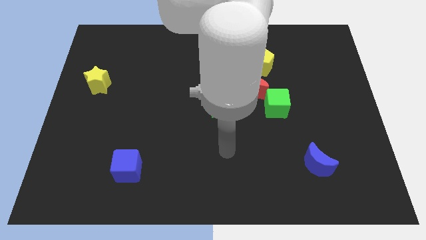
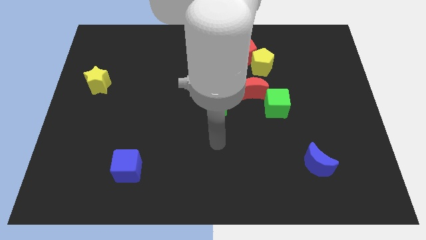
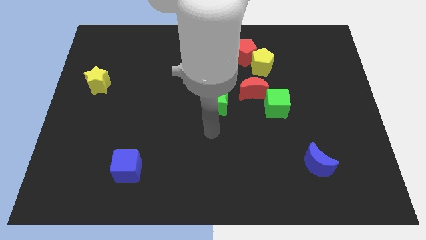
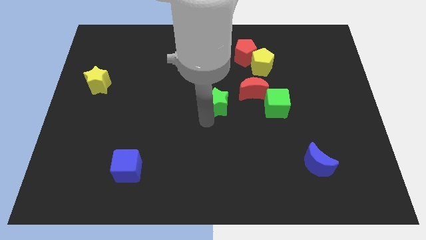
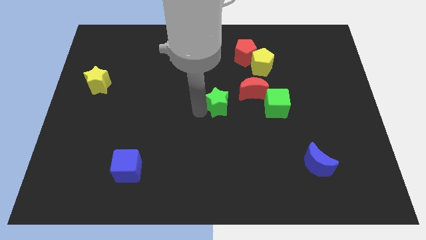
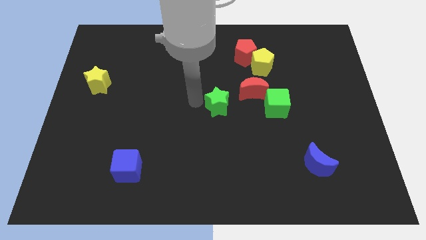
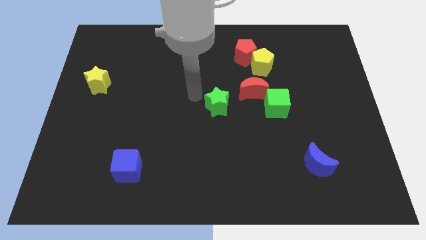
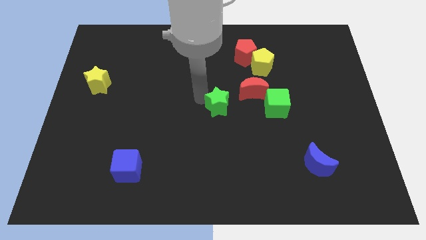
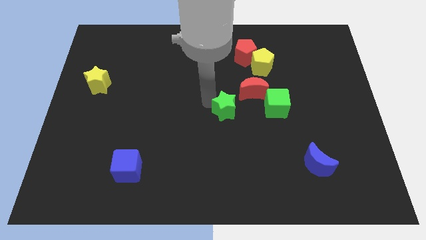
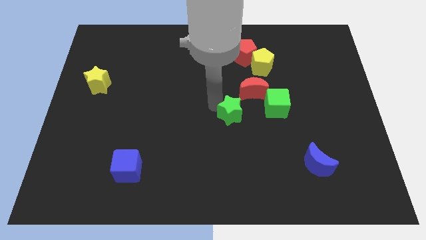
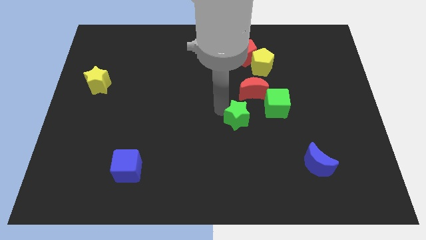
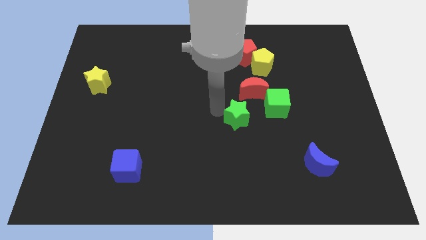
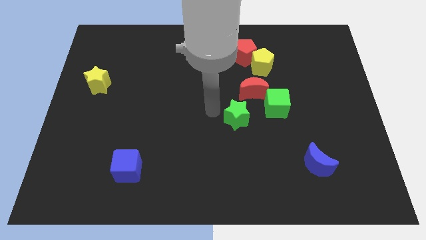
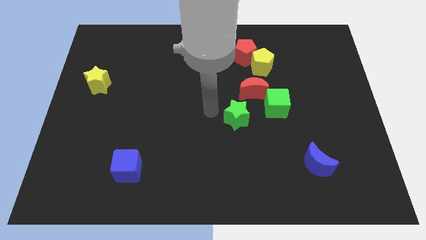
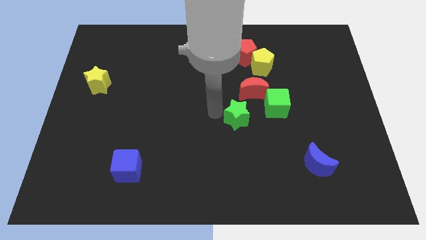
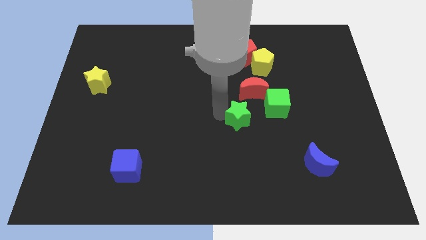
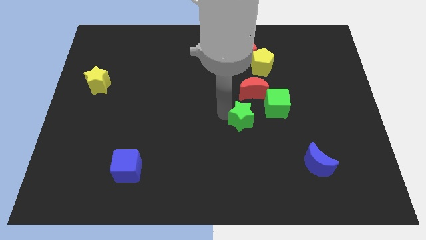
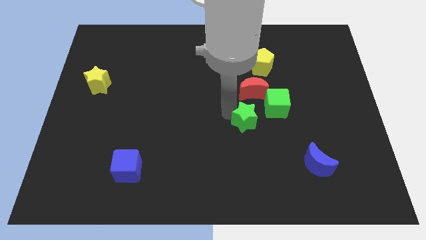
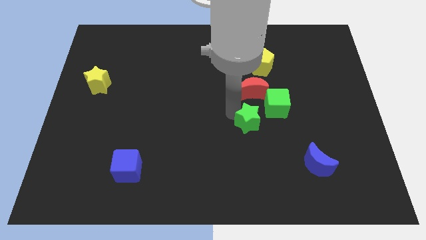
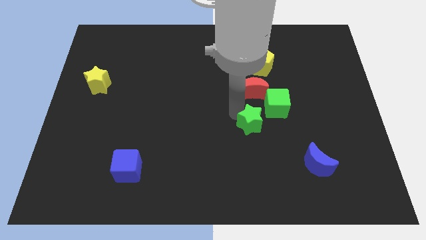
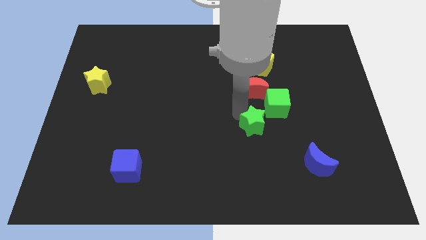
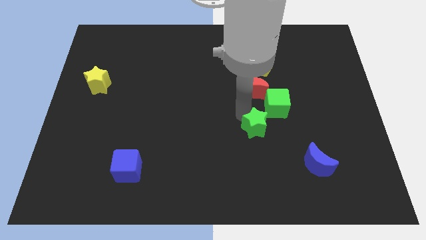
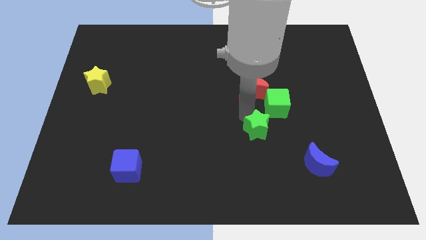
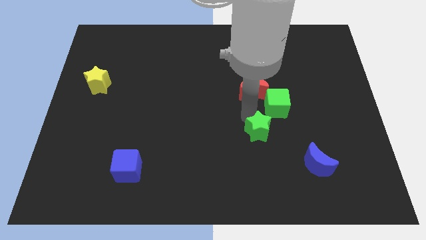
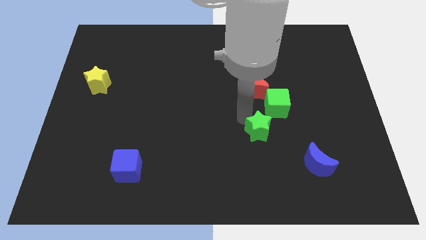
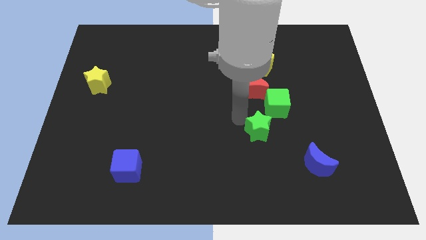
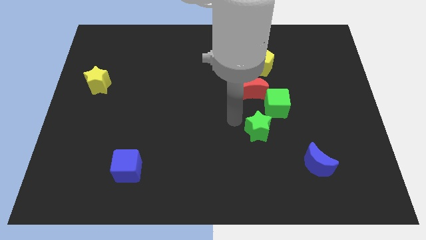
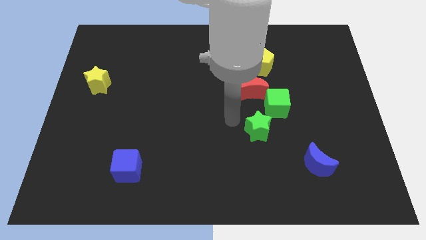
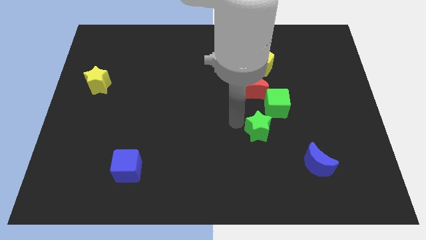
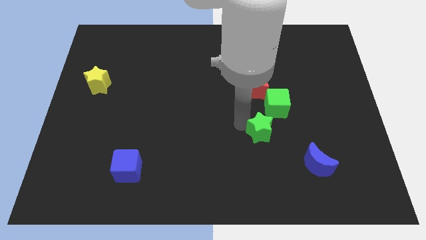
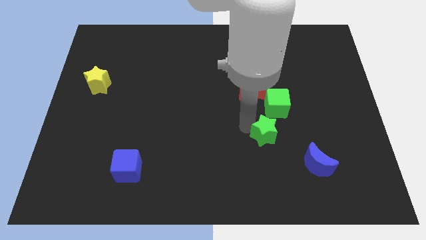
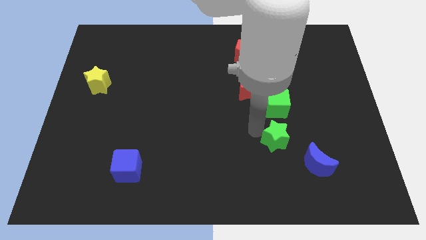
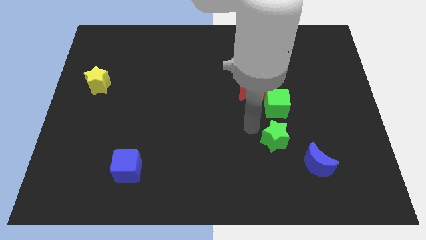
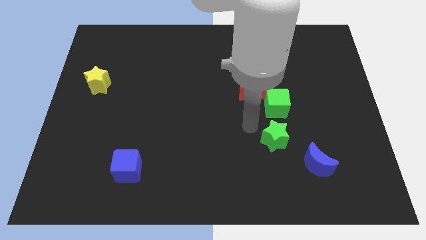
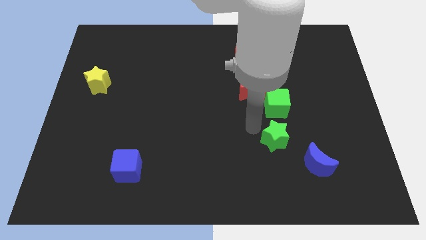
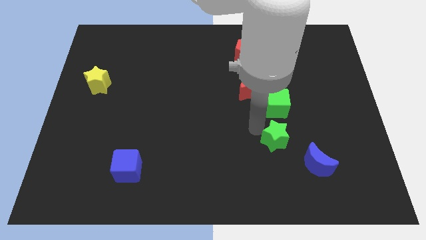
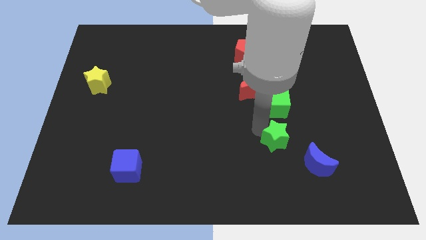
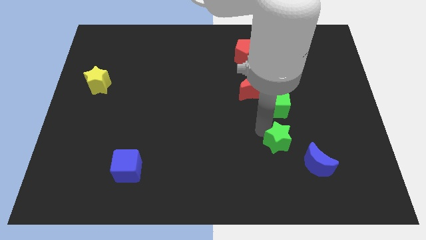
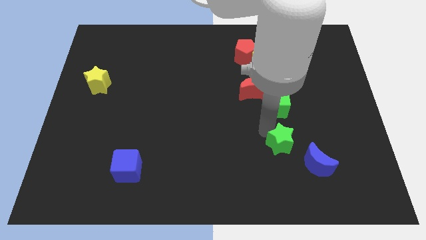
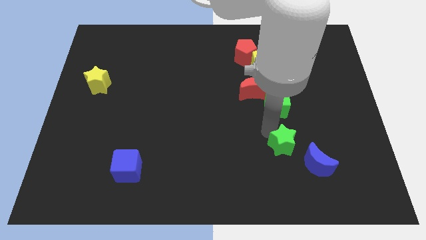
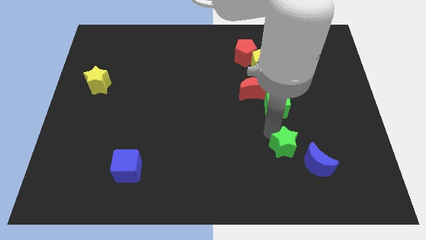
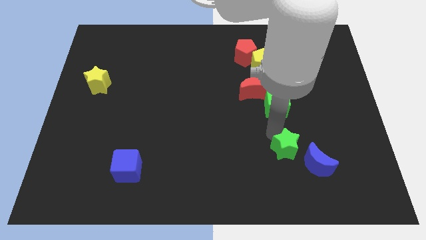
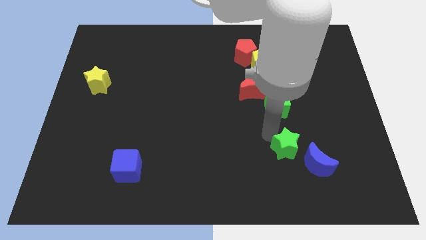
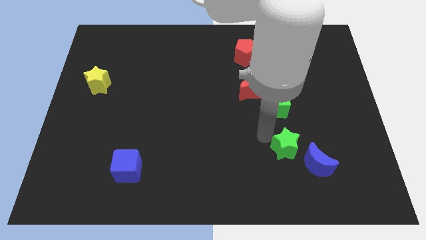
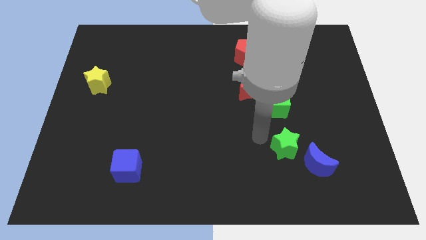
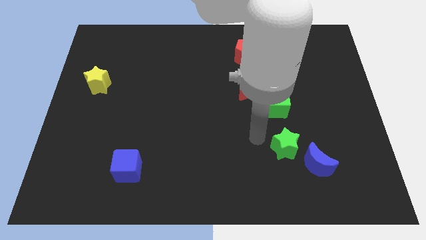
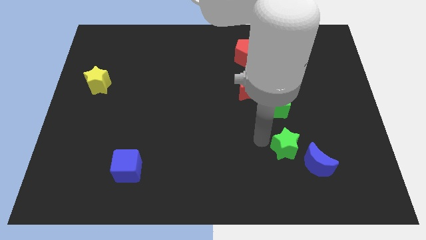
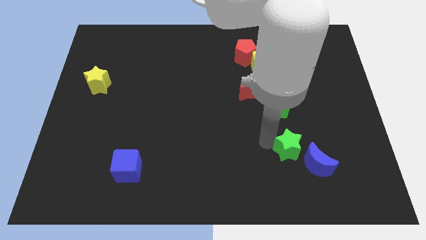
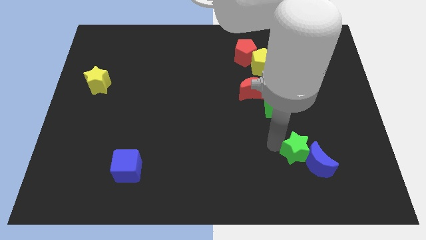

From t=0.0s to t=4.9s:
slide the green star next to the blue moon

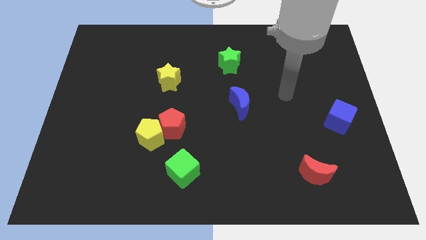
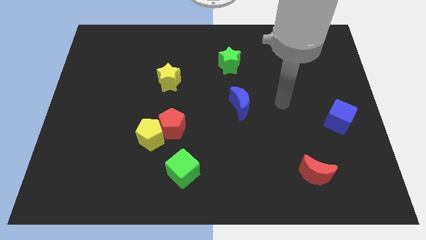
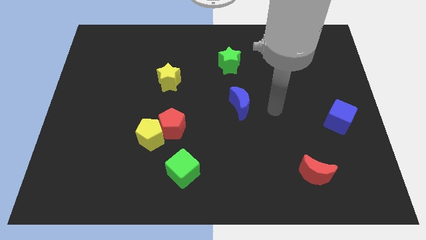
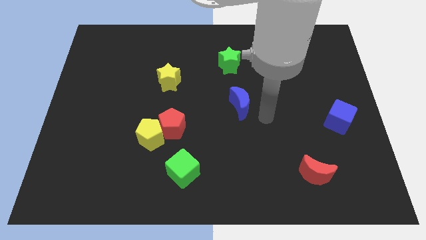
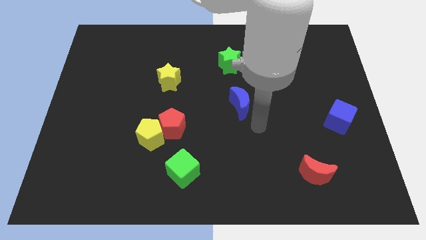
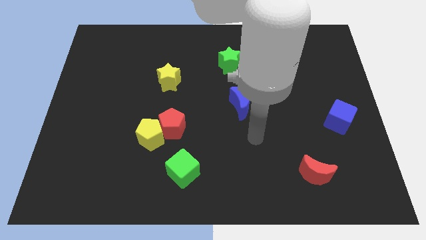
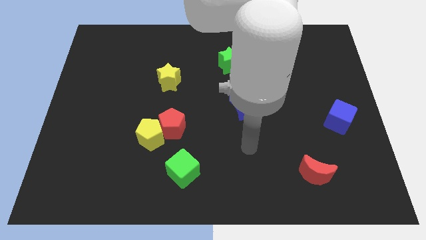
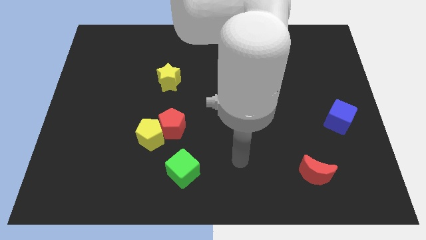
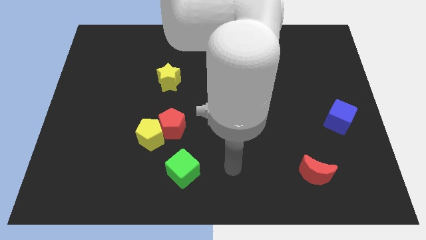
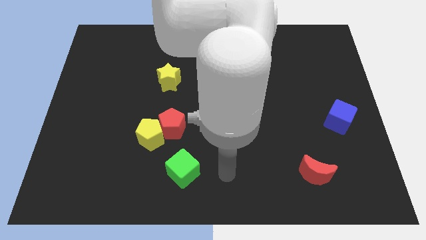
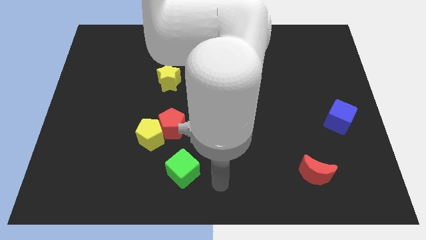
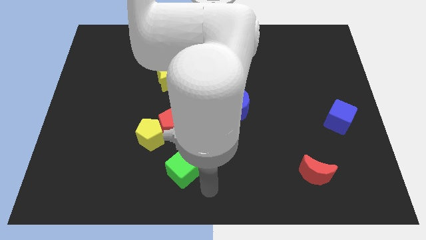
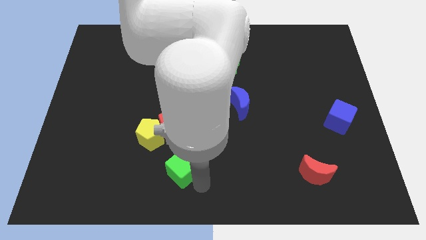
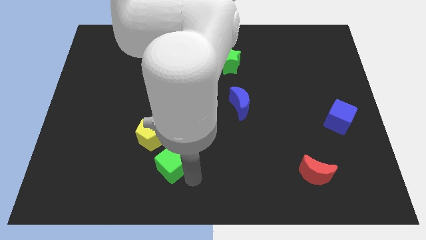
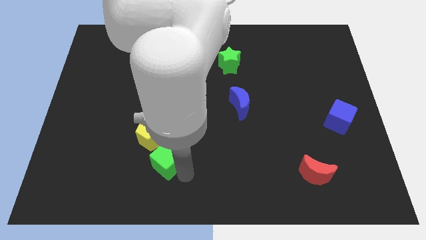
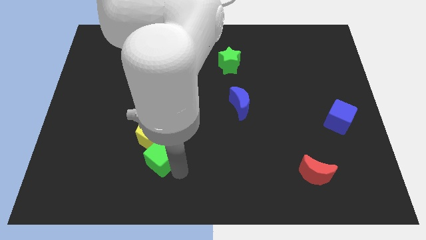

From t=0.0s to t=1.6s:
put the green cube to the yellow pentagon

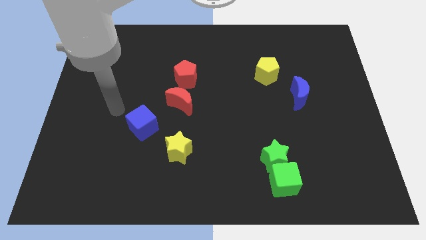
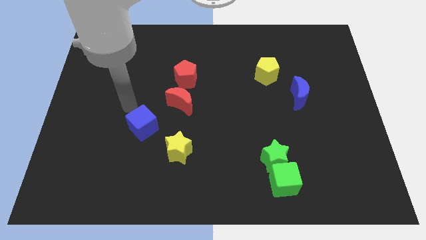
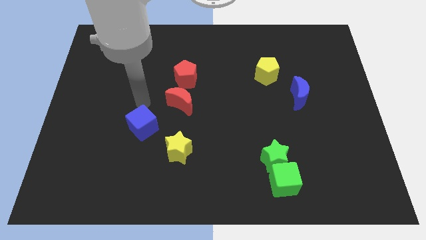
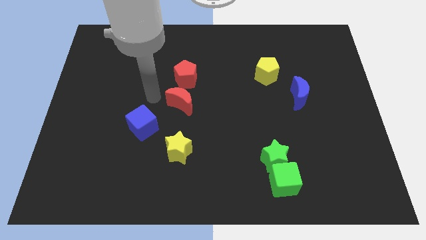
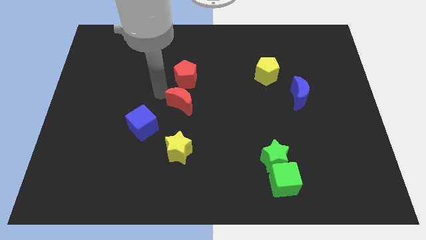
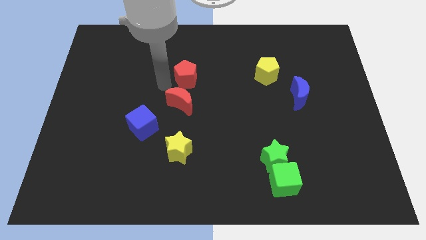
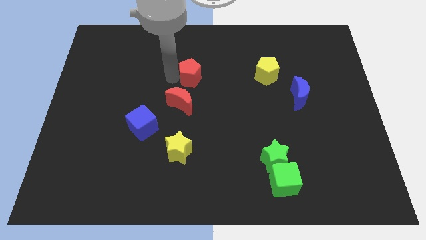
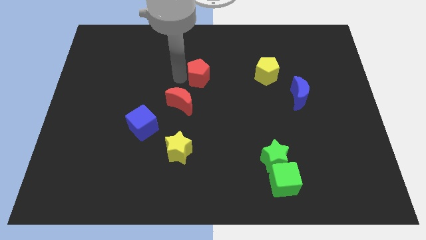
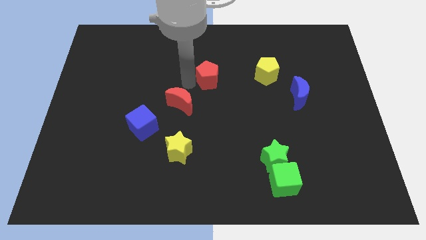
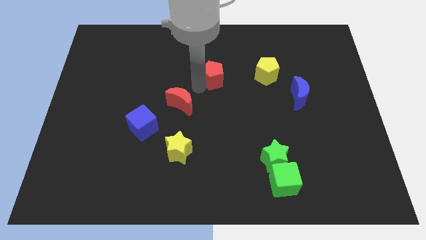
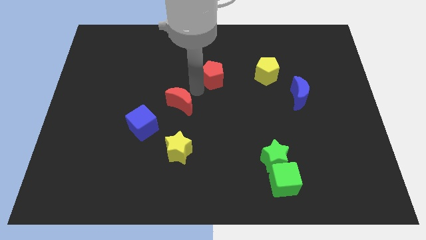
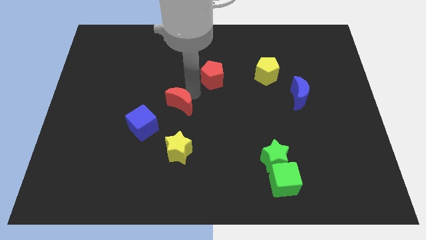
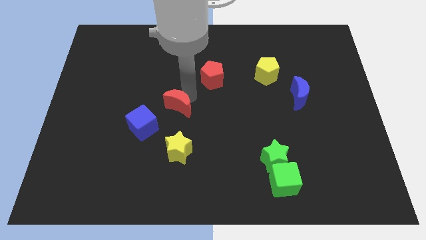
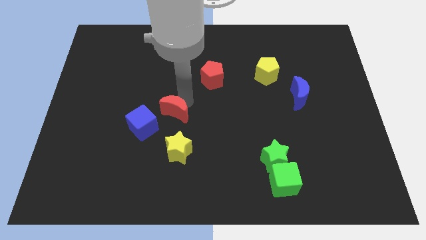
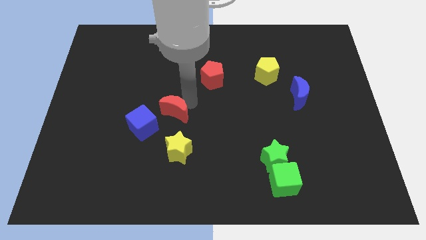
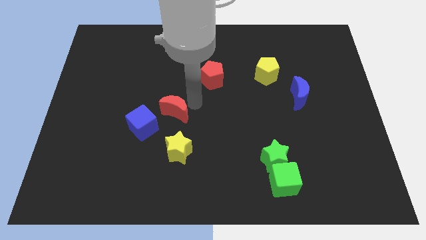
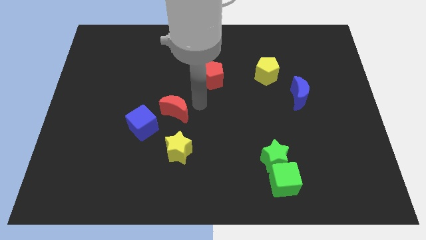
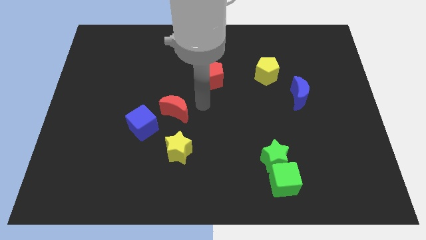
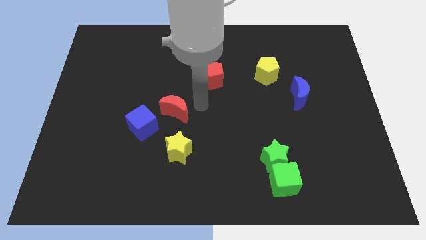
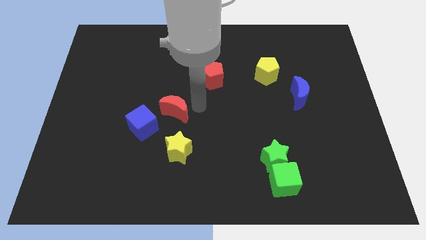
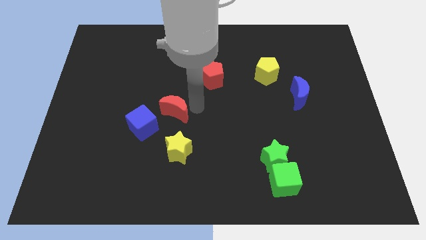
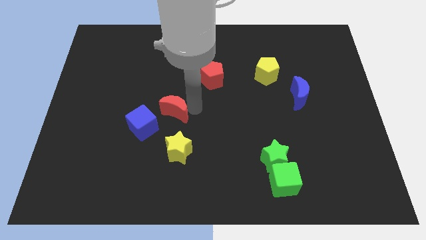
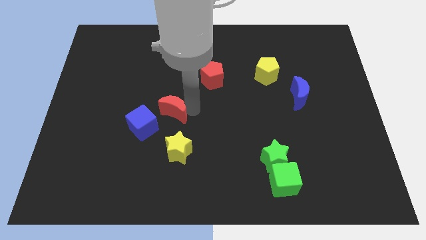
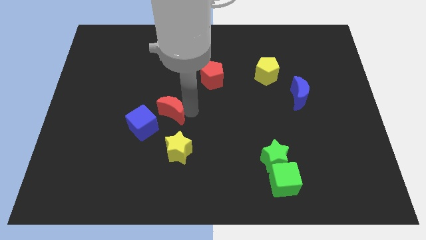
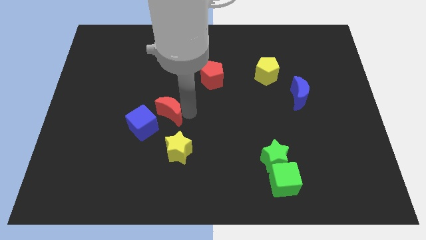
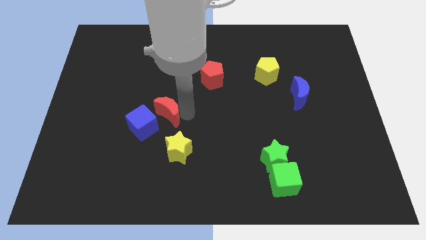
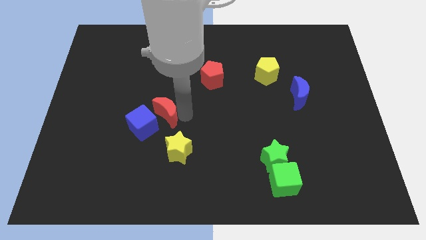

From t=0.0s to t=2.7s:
put the red moon next to the blue cube
